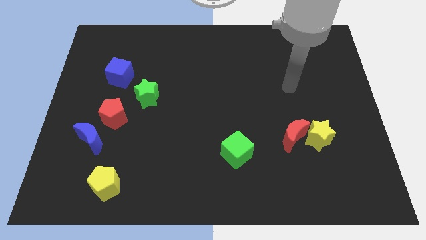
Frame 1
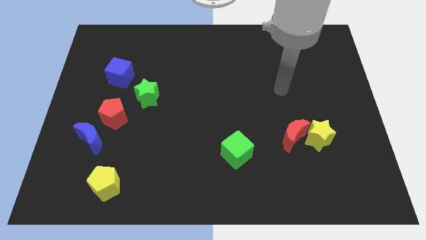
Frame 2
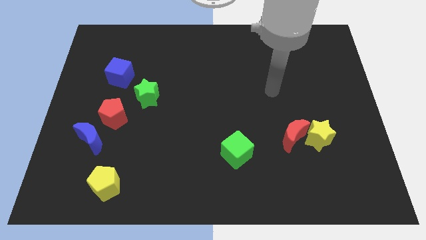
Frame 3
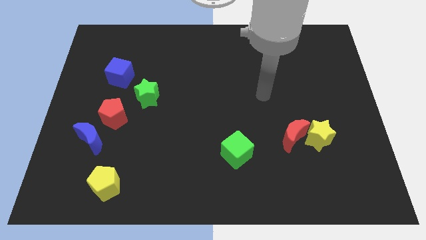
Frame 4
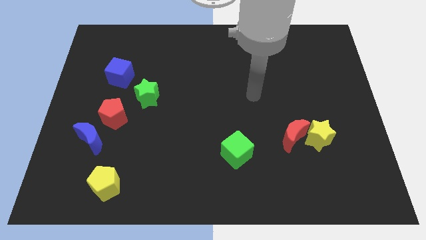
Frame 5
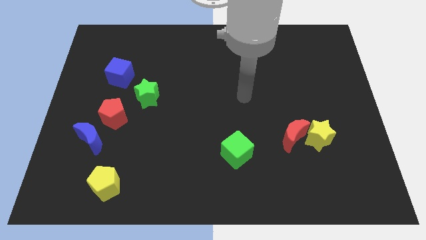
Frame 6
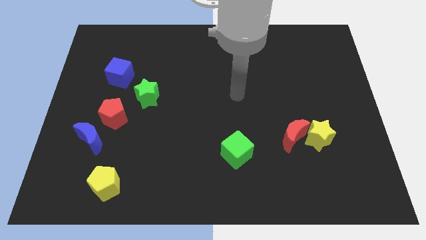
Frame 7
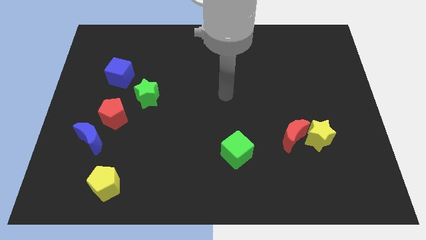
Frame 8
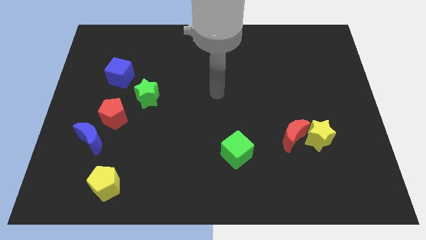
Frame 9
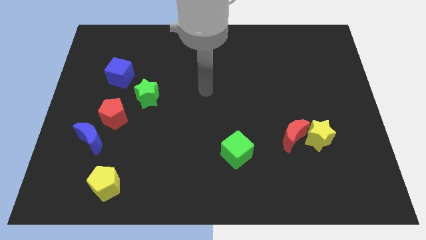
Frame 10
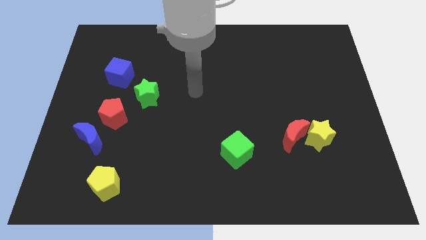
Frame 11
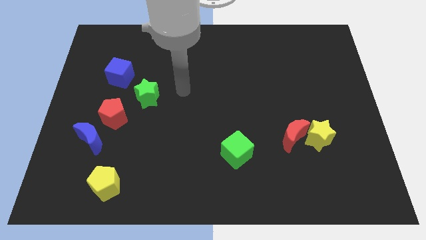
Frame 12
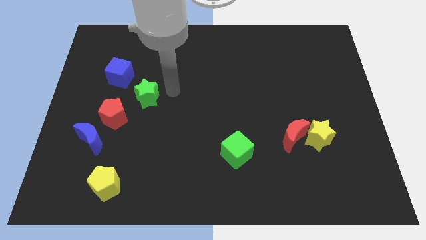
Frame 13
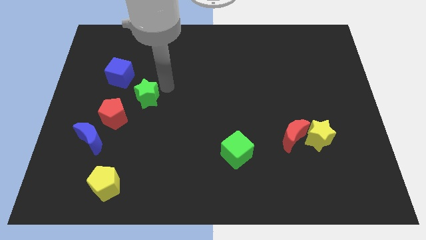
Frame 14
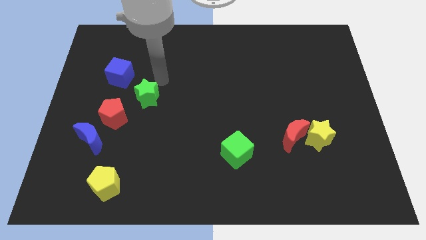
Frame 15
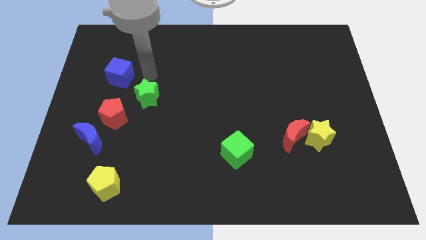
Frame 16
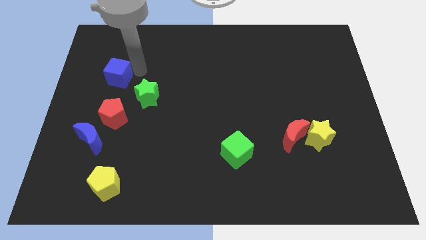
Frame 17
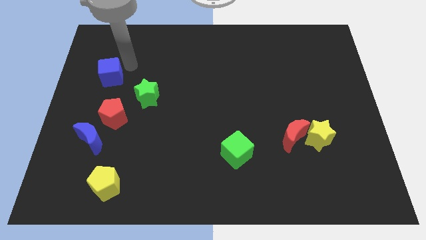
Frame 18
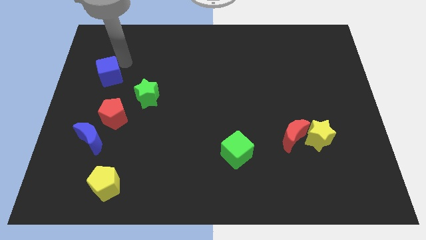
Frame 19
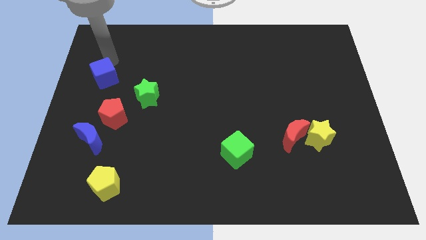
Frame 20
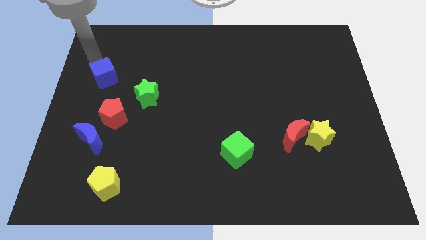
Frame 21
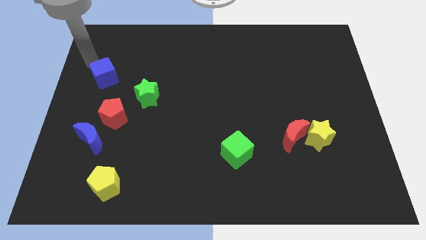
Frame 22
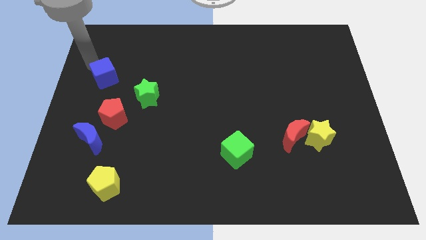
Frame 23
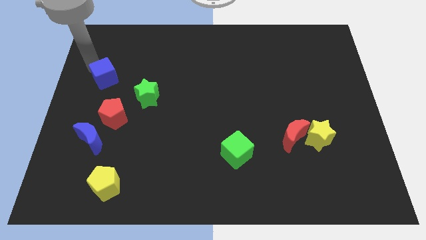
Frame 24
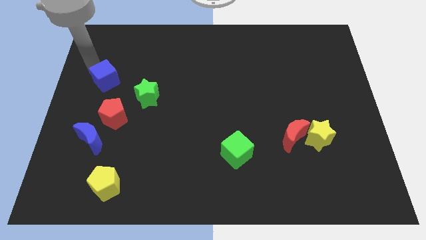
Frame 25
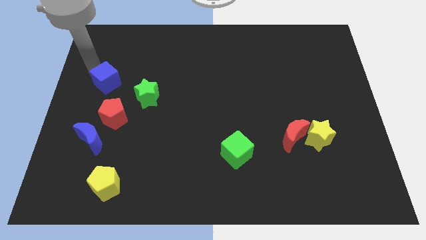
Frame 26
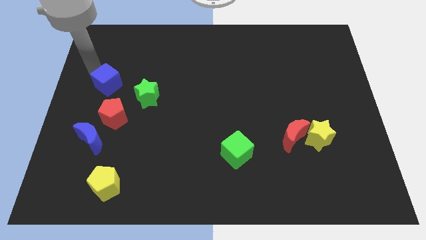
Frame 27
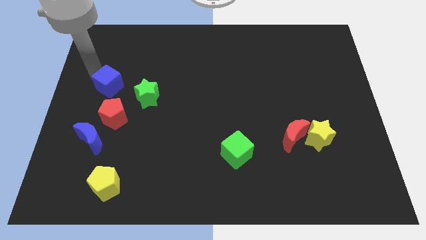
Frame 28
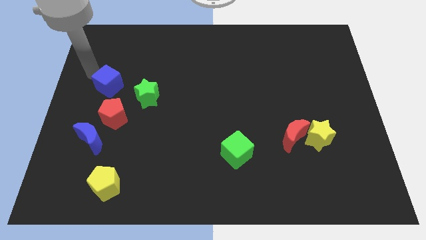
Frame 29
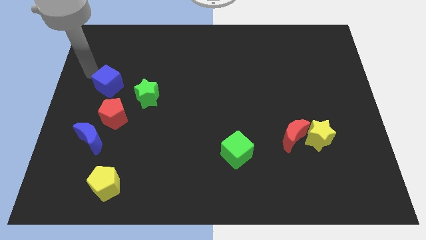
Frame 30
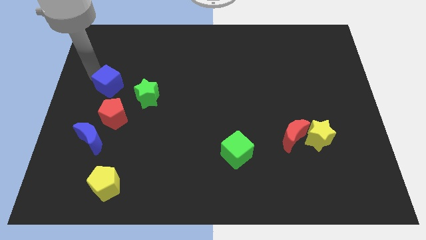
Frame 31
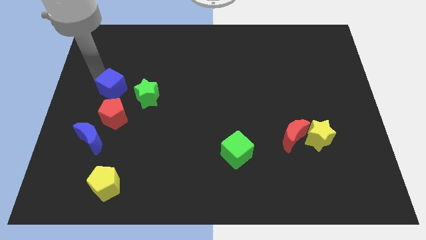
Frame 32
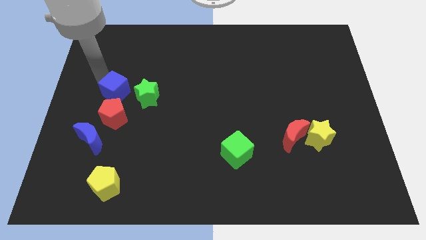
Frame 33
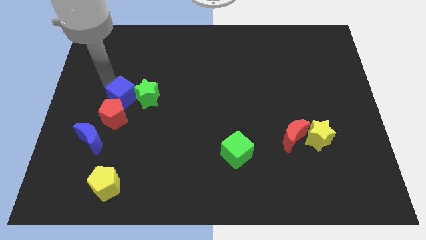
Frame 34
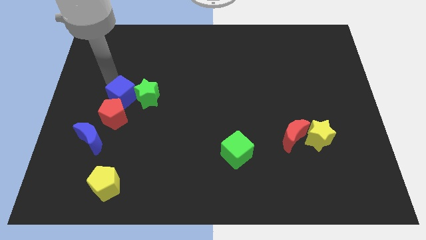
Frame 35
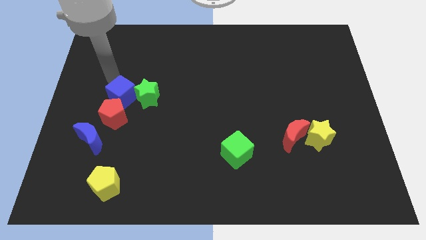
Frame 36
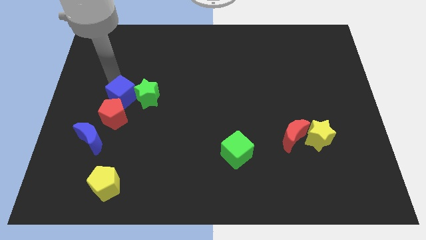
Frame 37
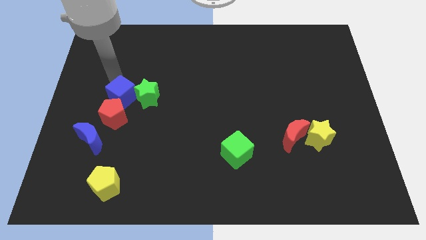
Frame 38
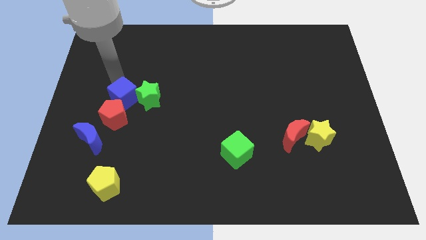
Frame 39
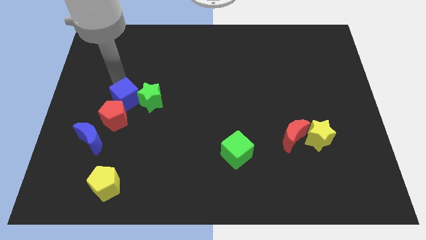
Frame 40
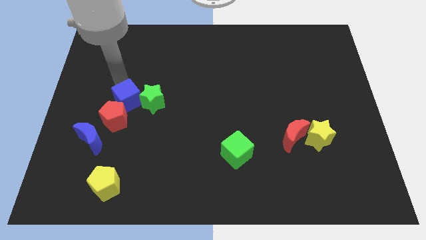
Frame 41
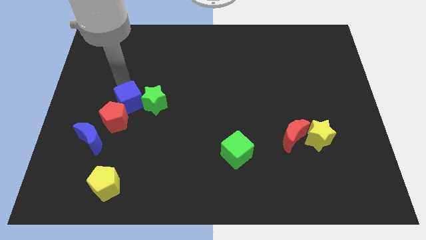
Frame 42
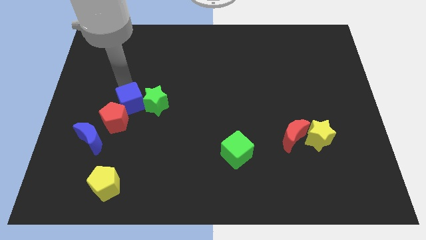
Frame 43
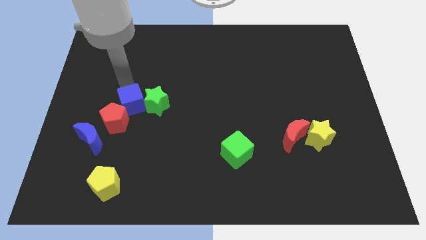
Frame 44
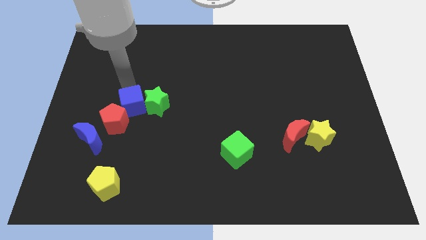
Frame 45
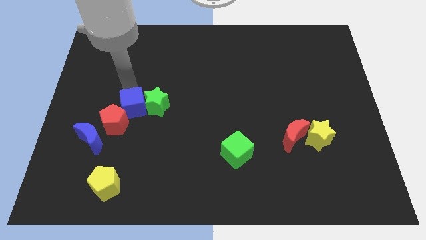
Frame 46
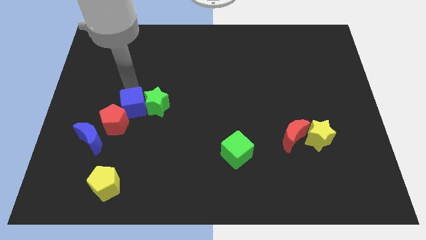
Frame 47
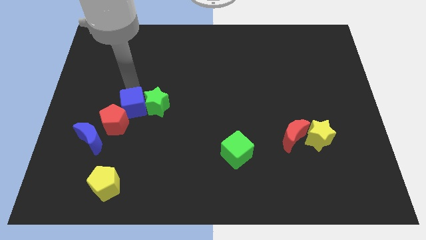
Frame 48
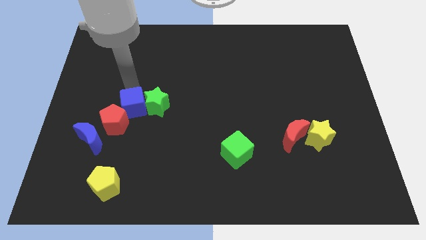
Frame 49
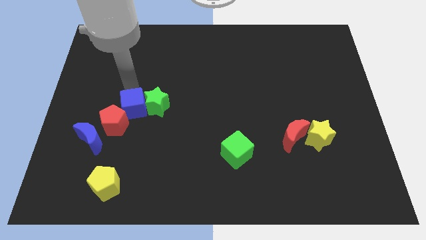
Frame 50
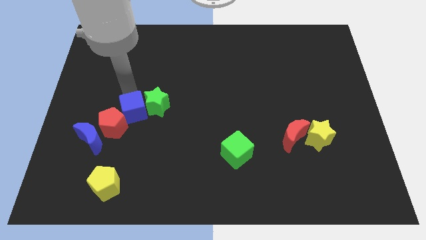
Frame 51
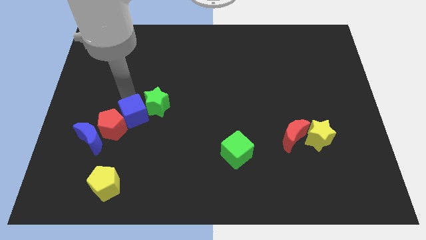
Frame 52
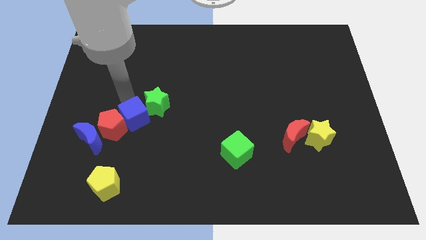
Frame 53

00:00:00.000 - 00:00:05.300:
put the blue cube to the bottom side of the green star

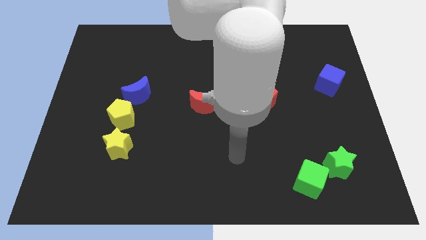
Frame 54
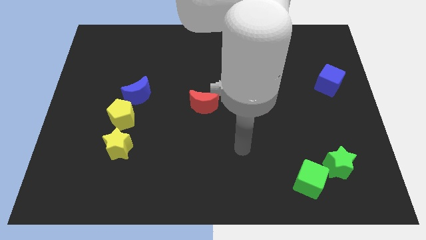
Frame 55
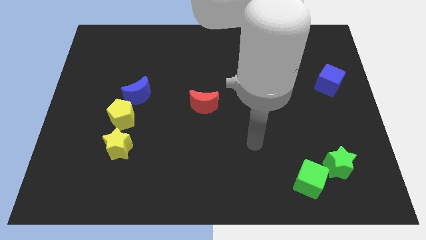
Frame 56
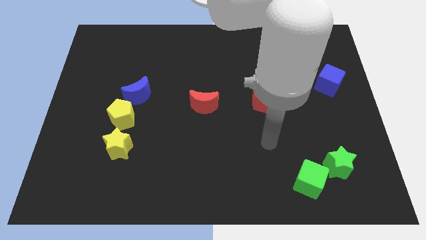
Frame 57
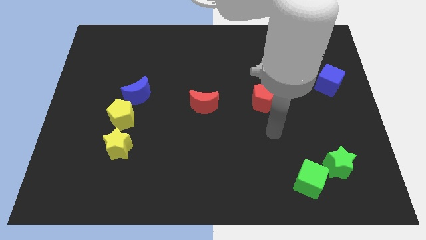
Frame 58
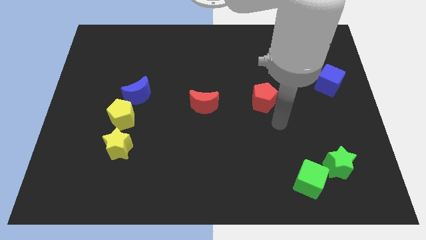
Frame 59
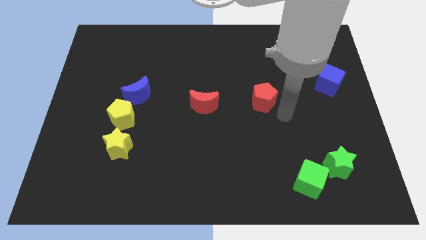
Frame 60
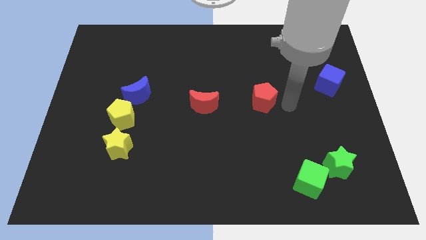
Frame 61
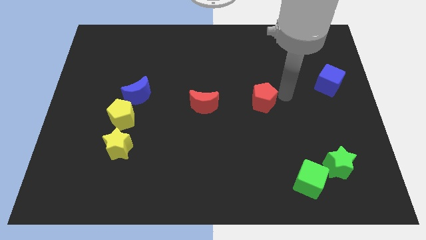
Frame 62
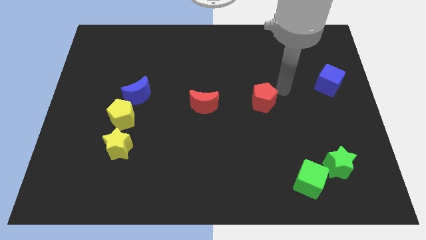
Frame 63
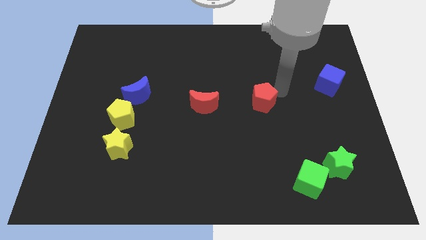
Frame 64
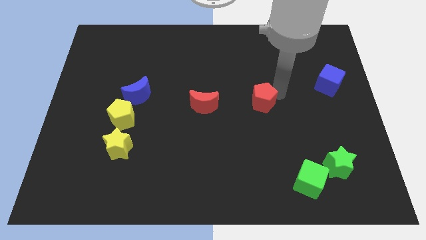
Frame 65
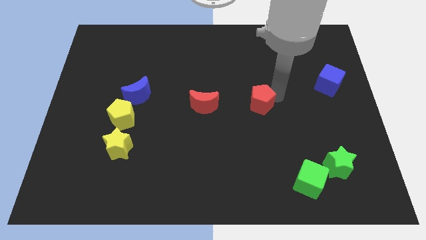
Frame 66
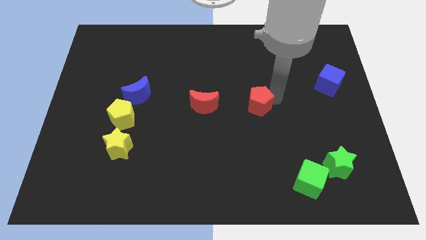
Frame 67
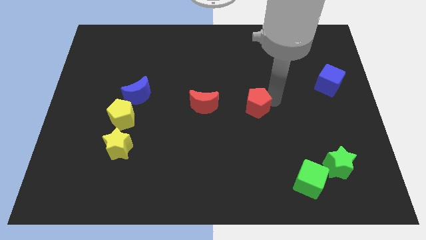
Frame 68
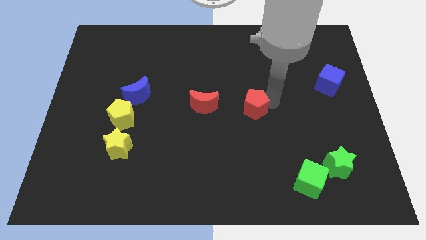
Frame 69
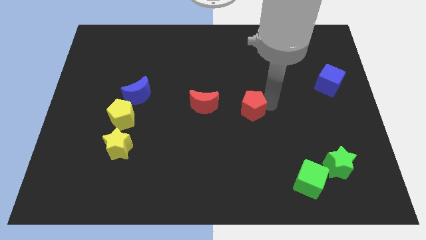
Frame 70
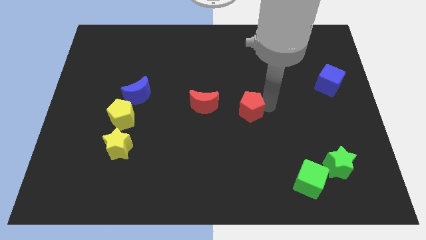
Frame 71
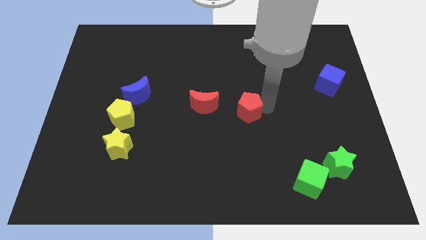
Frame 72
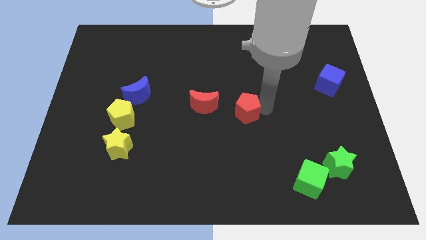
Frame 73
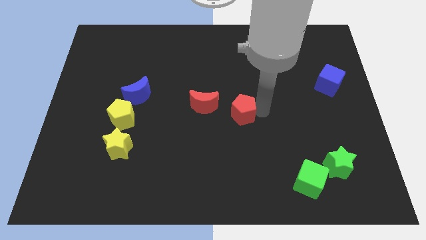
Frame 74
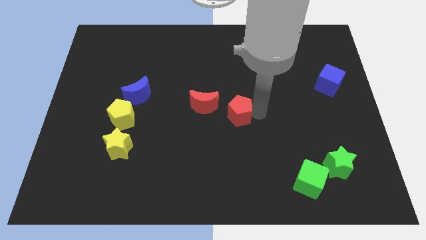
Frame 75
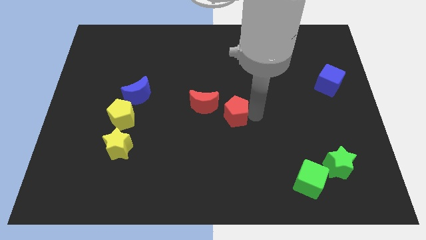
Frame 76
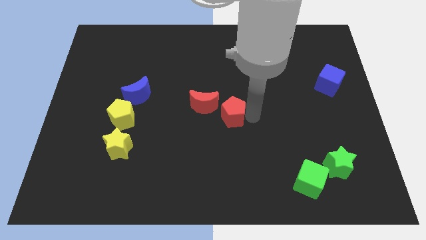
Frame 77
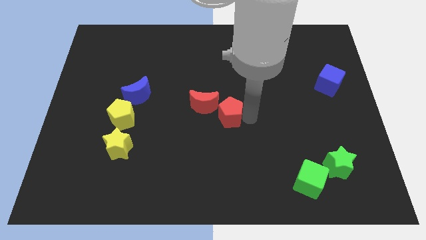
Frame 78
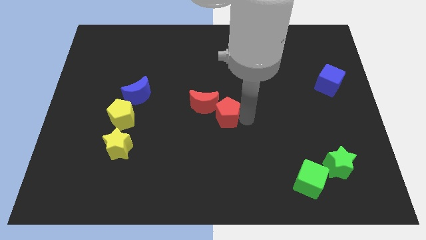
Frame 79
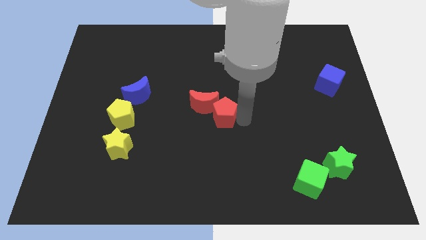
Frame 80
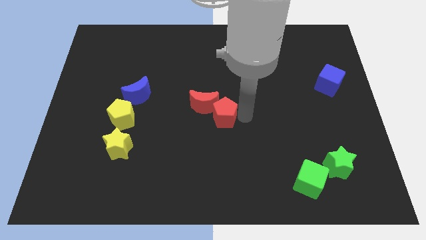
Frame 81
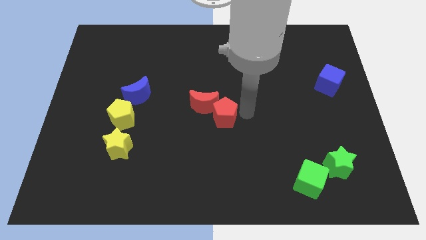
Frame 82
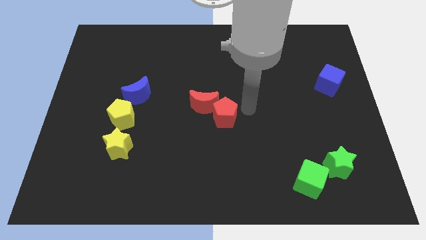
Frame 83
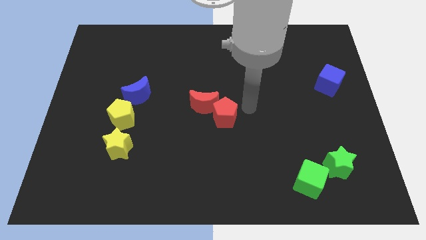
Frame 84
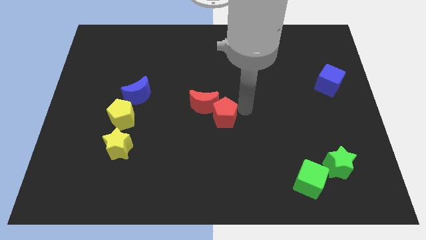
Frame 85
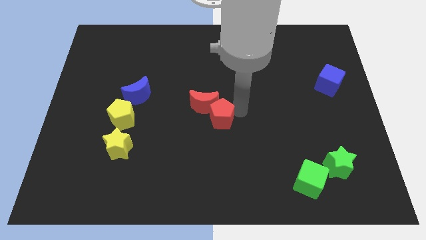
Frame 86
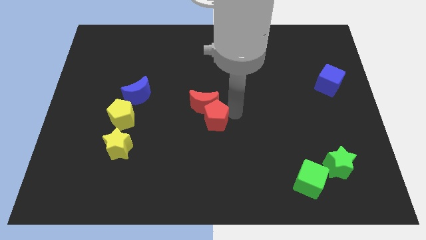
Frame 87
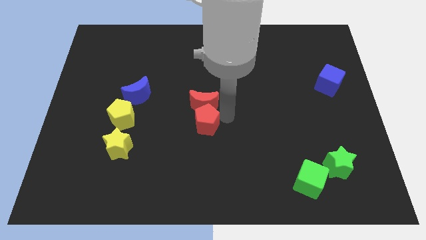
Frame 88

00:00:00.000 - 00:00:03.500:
slide the red pentagon to the bottom left of the red moon

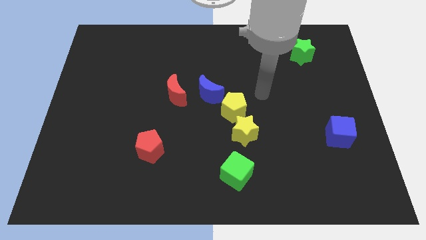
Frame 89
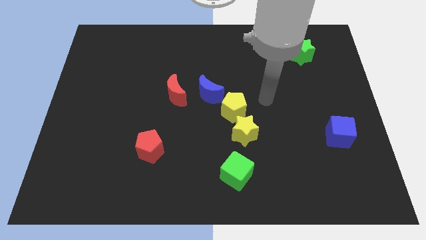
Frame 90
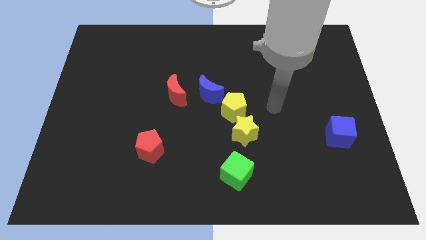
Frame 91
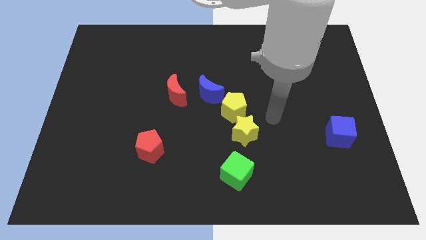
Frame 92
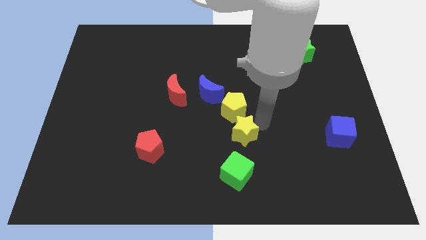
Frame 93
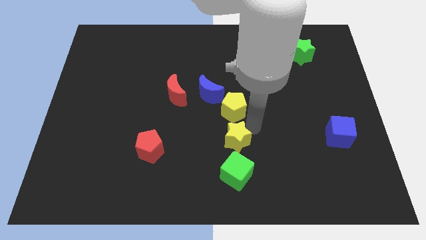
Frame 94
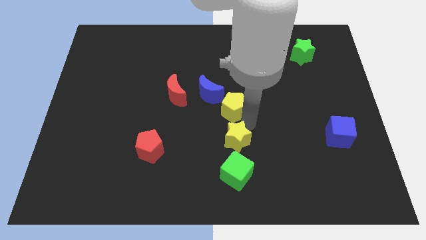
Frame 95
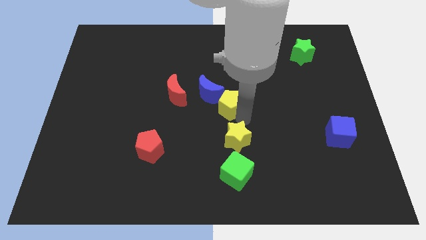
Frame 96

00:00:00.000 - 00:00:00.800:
move the yellow pentagon to the right of the red moon
